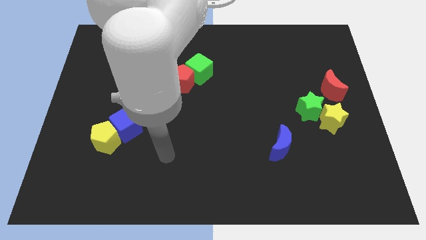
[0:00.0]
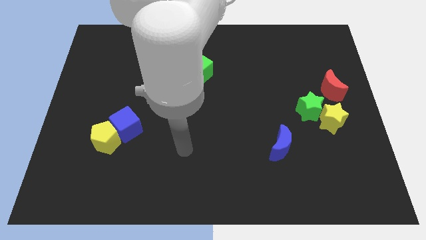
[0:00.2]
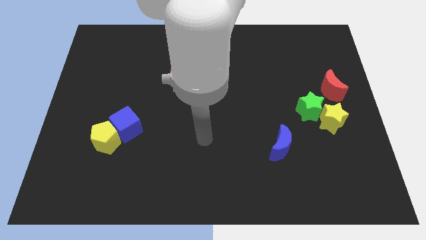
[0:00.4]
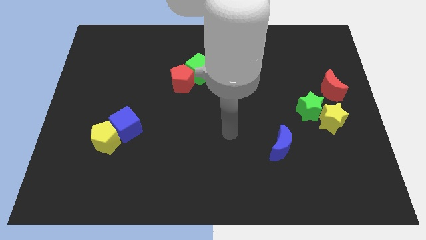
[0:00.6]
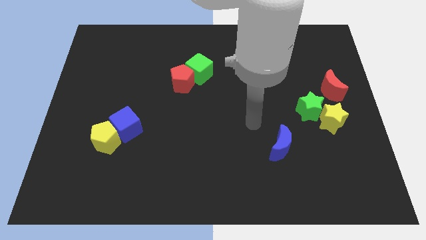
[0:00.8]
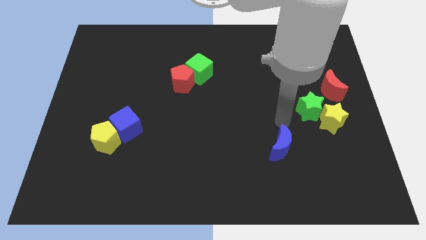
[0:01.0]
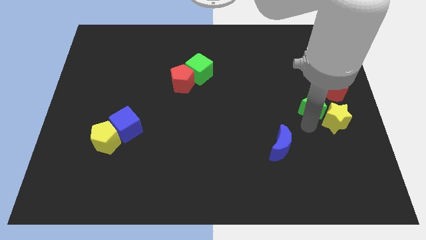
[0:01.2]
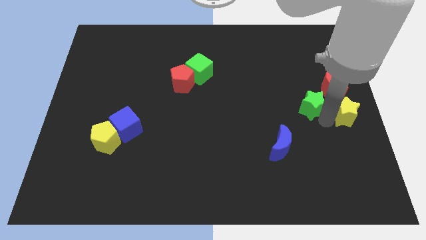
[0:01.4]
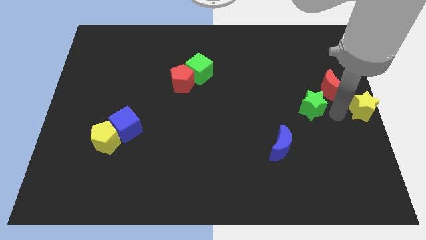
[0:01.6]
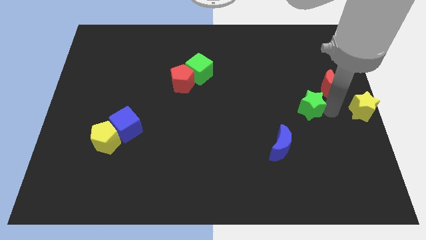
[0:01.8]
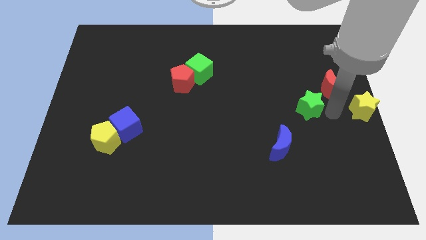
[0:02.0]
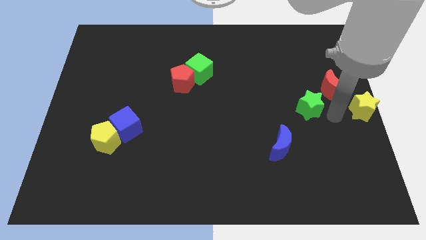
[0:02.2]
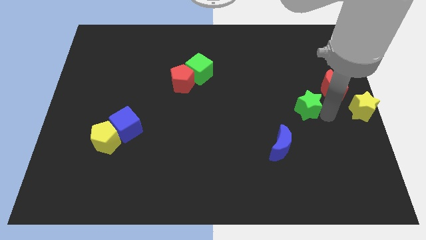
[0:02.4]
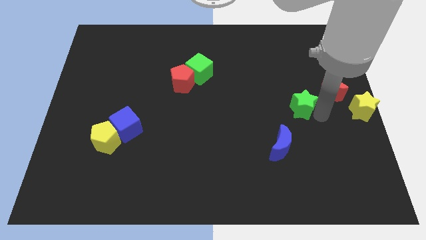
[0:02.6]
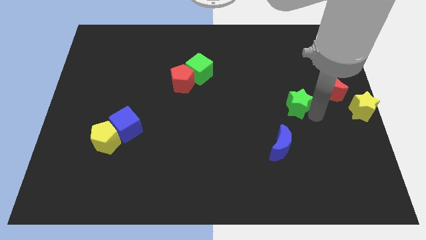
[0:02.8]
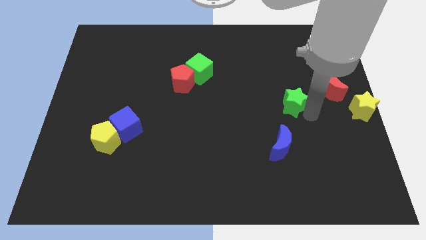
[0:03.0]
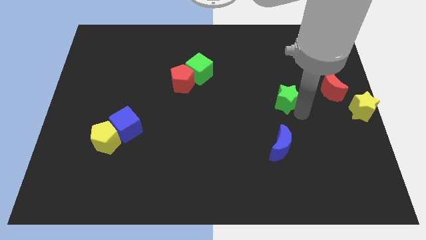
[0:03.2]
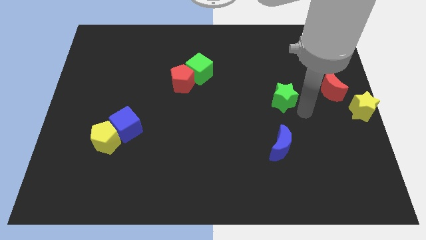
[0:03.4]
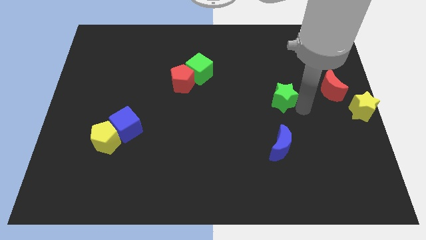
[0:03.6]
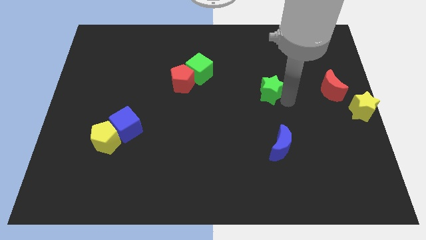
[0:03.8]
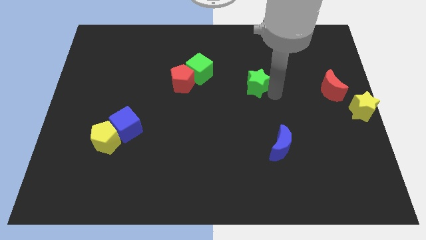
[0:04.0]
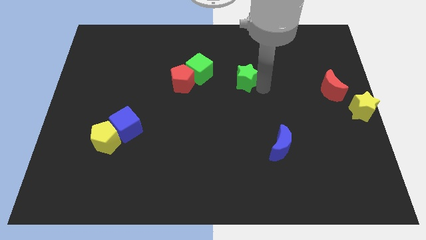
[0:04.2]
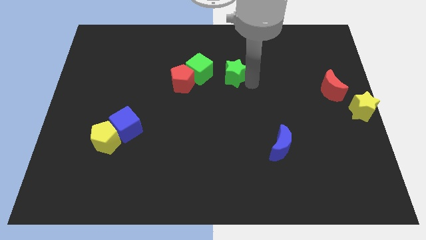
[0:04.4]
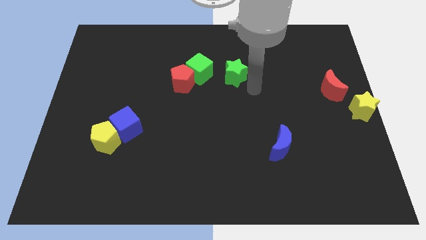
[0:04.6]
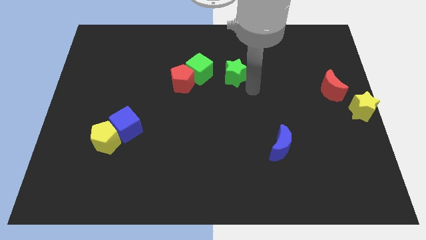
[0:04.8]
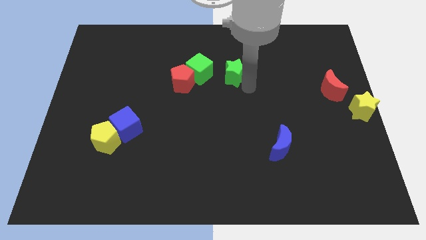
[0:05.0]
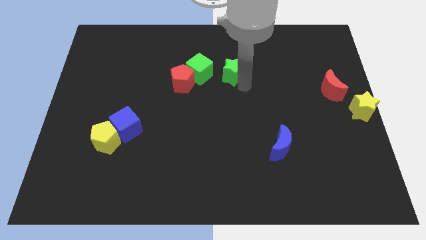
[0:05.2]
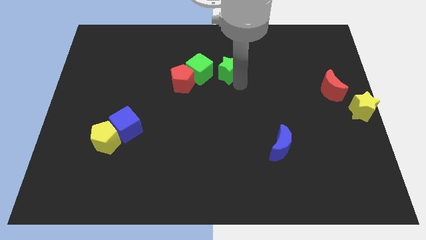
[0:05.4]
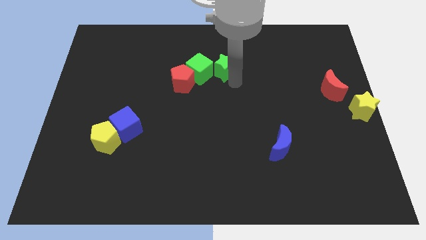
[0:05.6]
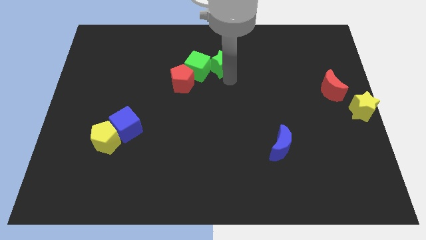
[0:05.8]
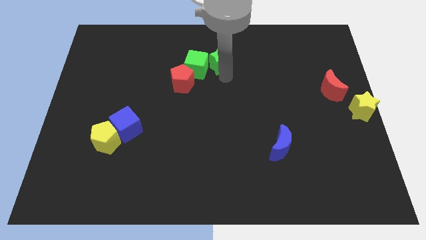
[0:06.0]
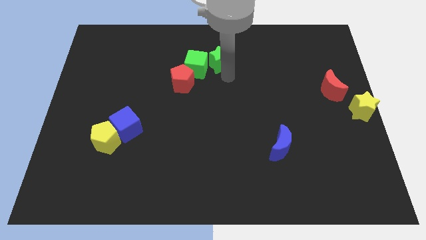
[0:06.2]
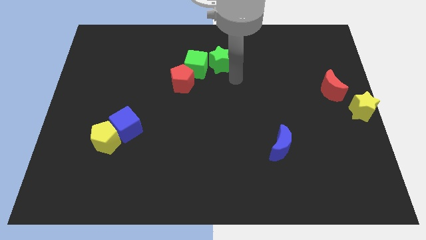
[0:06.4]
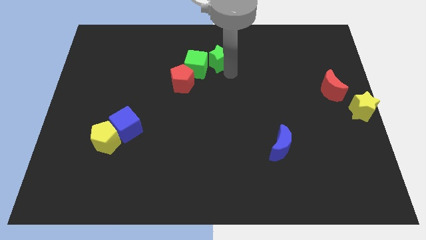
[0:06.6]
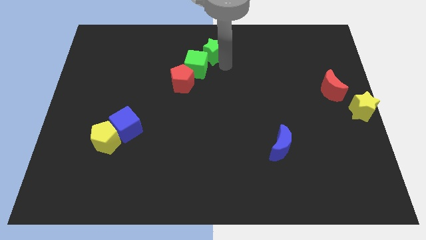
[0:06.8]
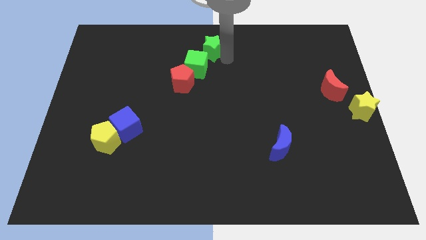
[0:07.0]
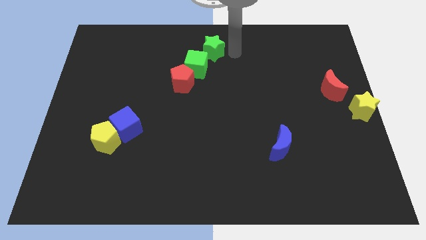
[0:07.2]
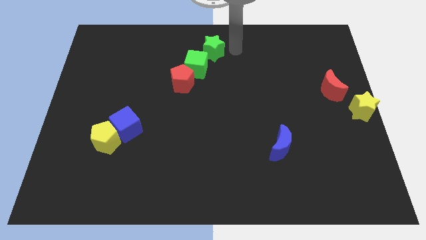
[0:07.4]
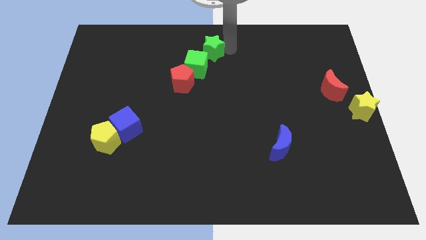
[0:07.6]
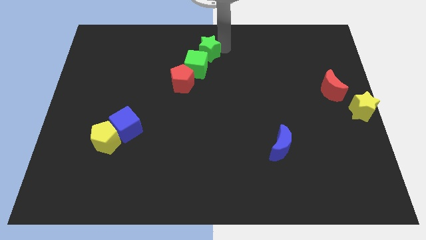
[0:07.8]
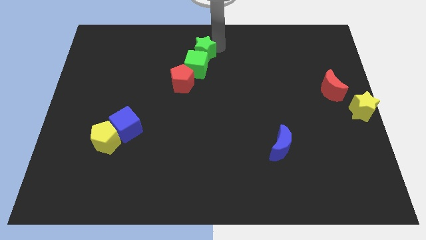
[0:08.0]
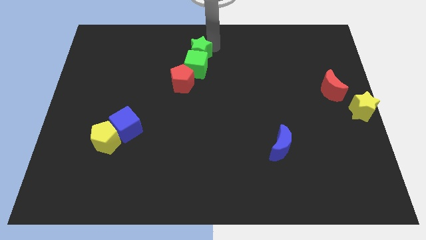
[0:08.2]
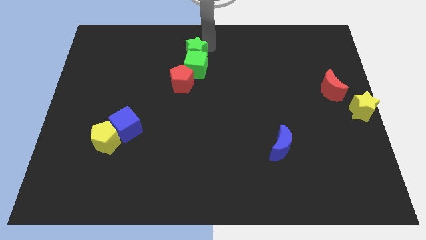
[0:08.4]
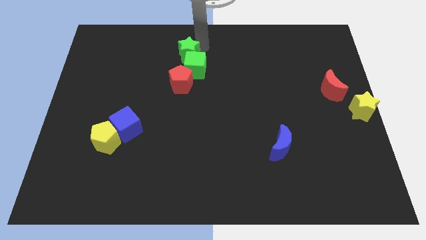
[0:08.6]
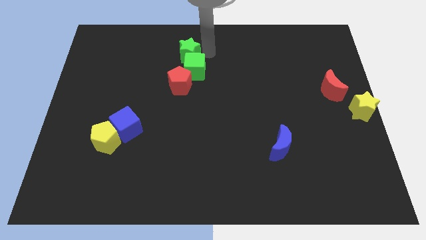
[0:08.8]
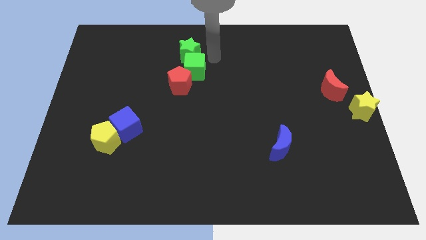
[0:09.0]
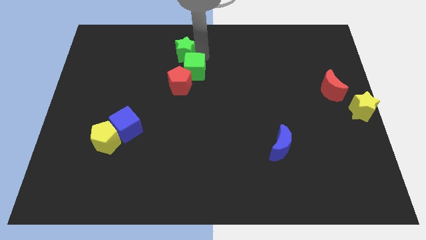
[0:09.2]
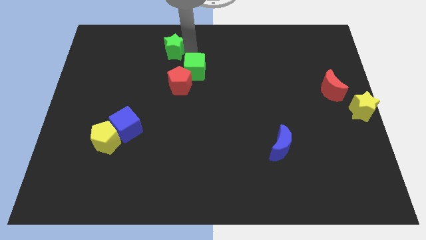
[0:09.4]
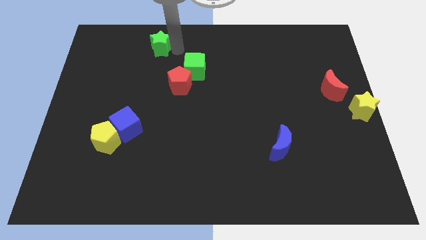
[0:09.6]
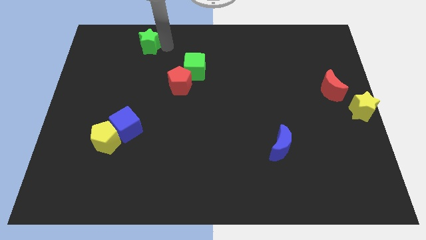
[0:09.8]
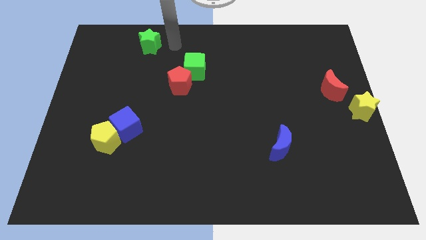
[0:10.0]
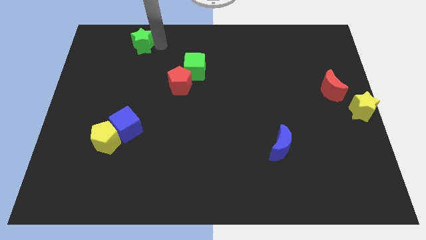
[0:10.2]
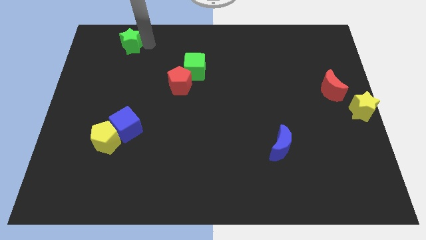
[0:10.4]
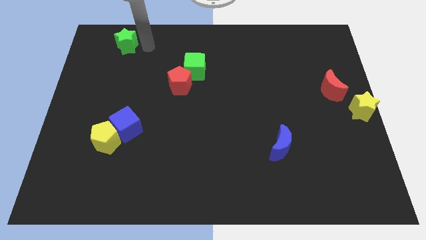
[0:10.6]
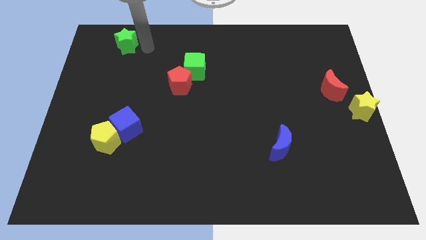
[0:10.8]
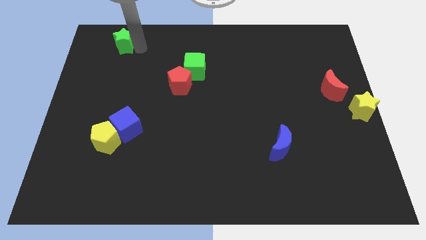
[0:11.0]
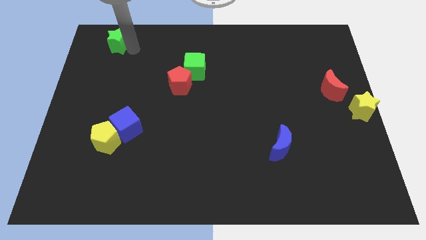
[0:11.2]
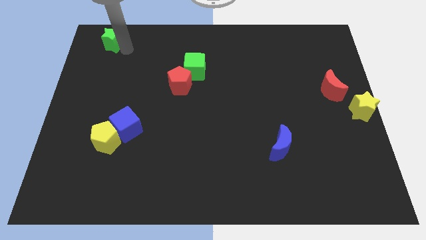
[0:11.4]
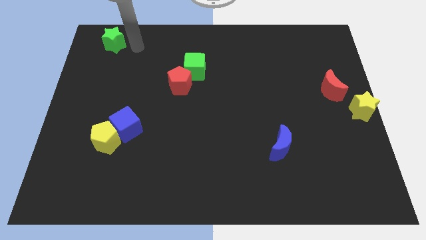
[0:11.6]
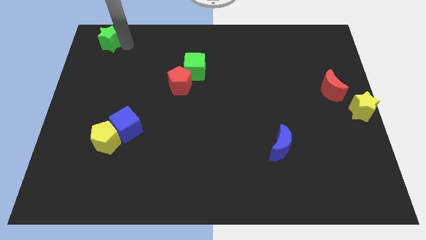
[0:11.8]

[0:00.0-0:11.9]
push the green star to the top left corner
